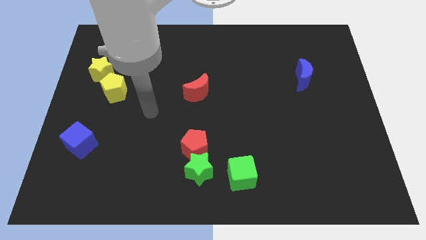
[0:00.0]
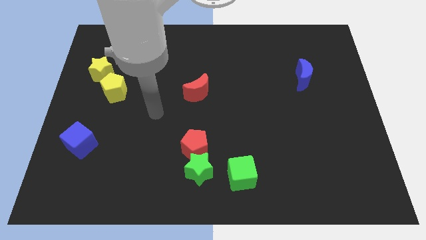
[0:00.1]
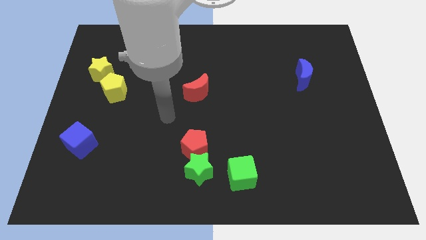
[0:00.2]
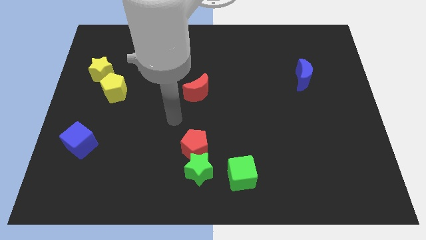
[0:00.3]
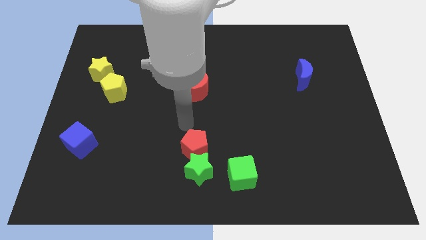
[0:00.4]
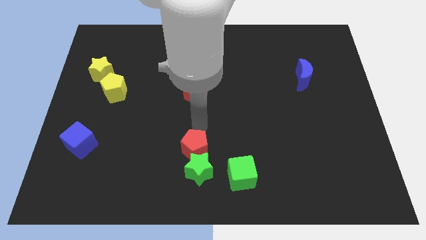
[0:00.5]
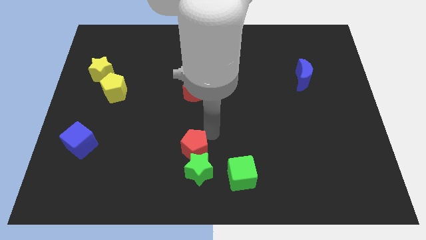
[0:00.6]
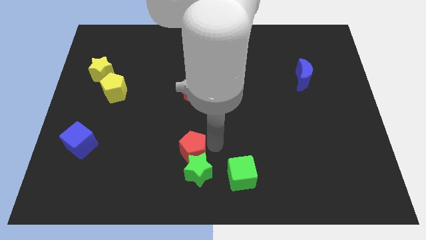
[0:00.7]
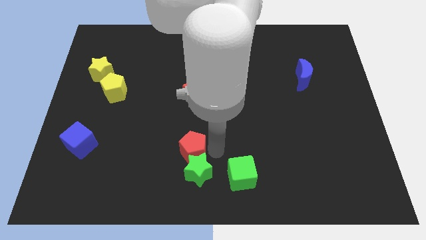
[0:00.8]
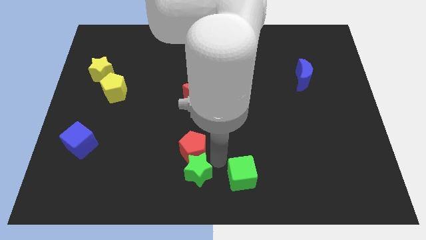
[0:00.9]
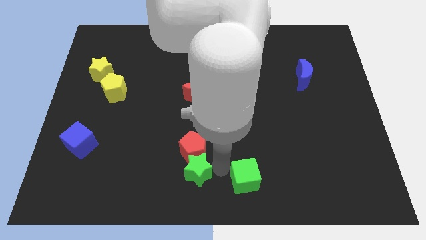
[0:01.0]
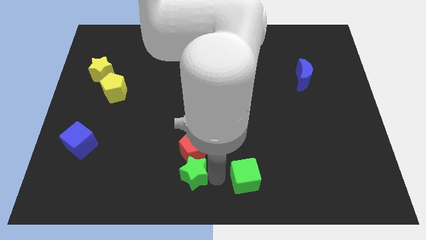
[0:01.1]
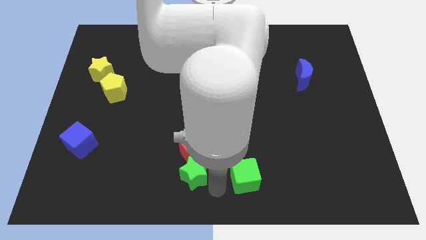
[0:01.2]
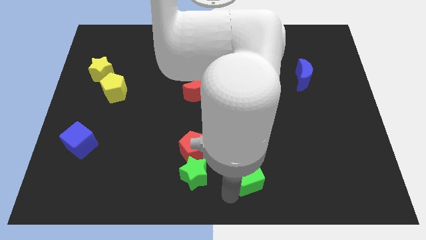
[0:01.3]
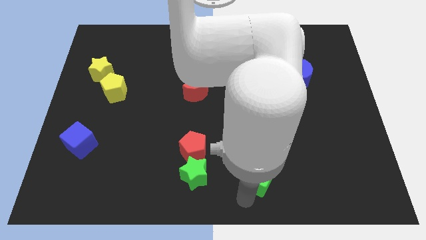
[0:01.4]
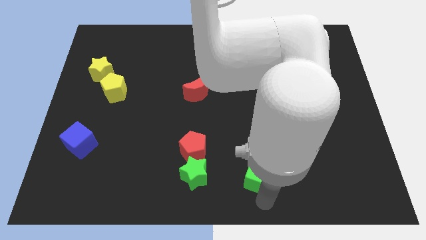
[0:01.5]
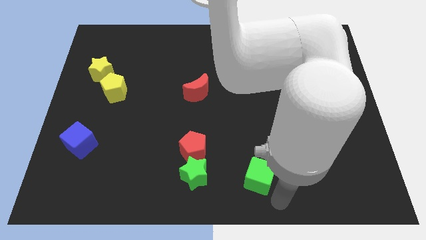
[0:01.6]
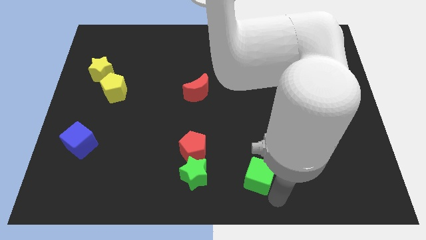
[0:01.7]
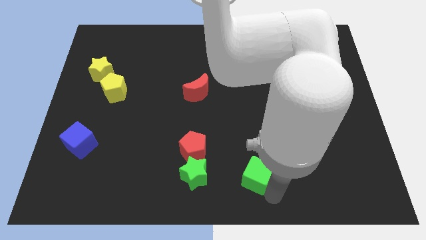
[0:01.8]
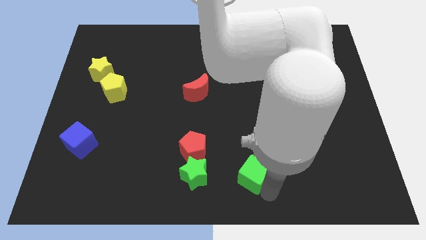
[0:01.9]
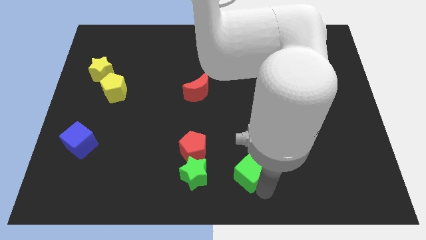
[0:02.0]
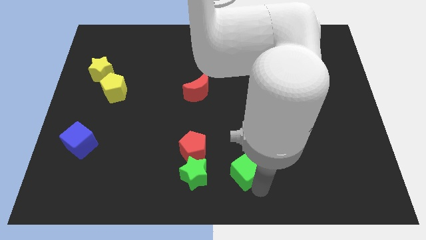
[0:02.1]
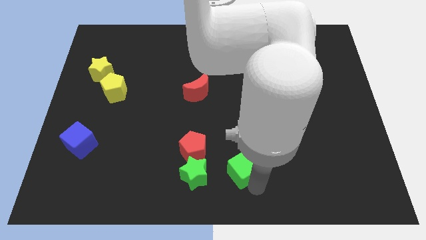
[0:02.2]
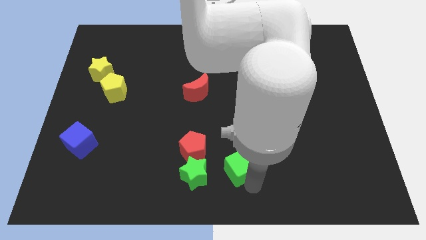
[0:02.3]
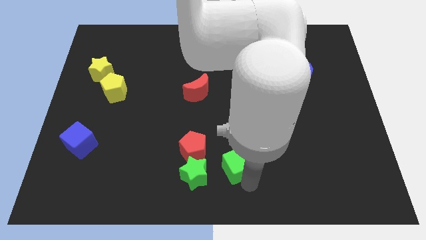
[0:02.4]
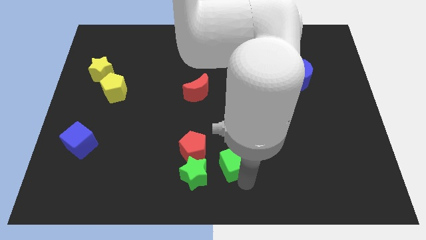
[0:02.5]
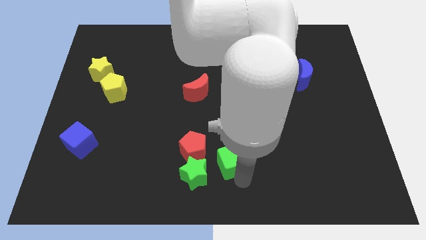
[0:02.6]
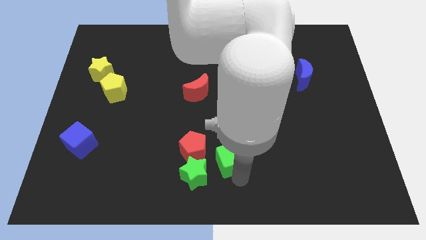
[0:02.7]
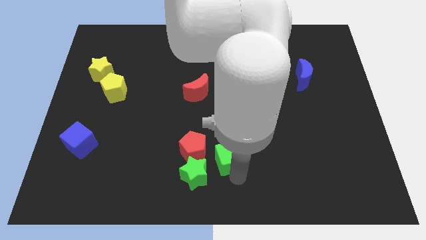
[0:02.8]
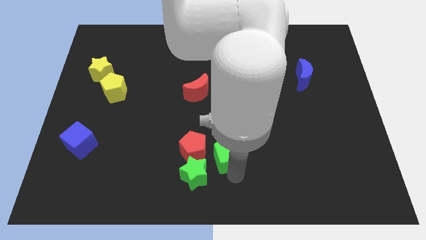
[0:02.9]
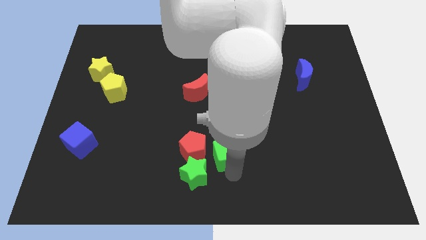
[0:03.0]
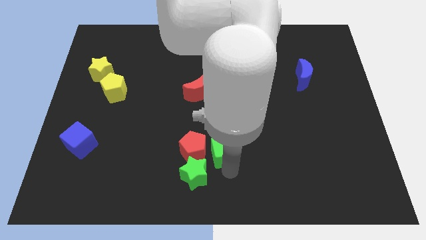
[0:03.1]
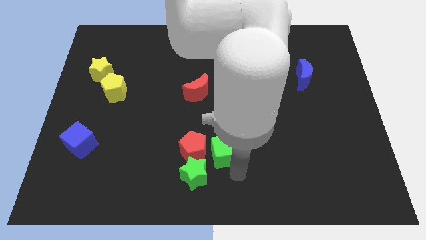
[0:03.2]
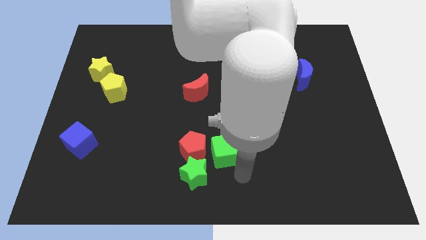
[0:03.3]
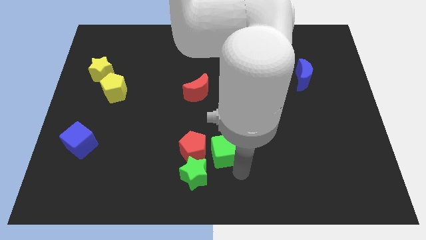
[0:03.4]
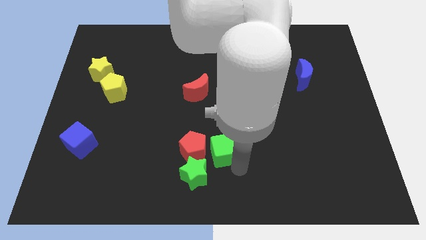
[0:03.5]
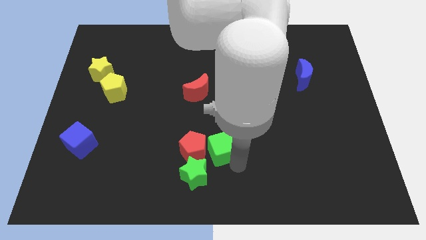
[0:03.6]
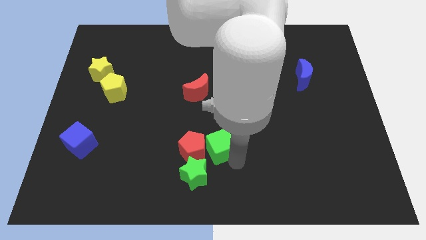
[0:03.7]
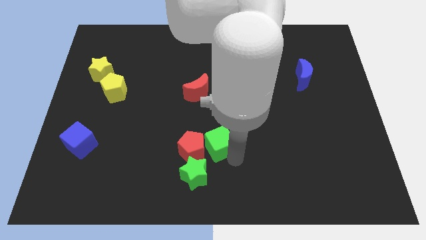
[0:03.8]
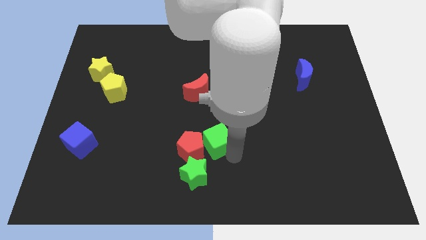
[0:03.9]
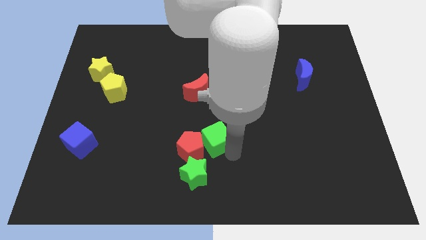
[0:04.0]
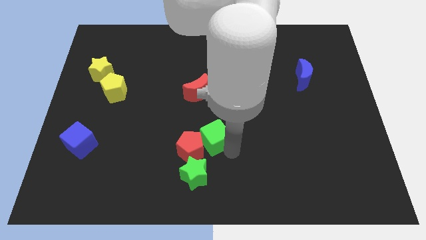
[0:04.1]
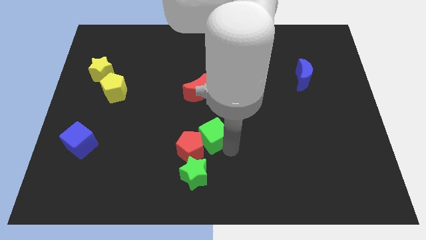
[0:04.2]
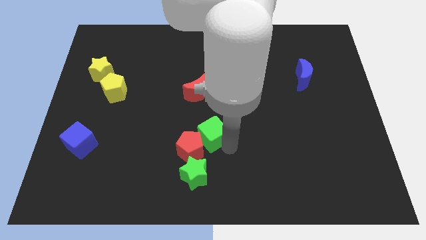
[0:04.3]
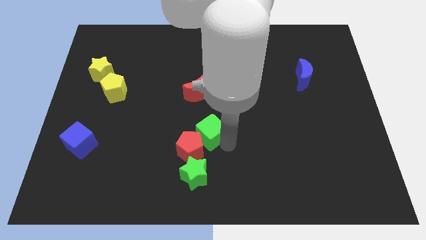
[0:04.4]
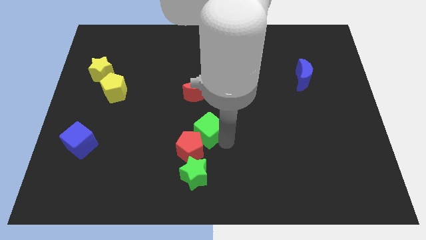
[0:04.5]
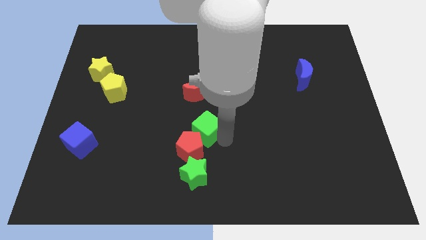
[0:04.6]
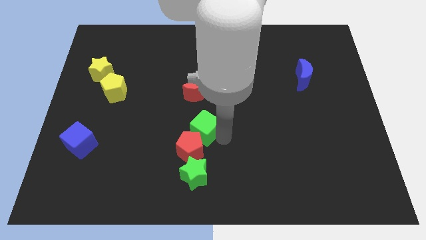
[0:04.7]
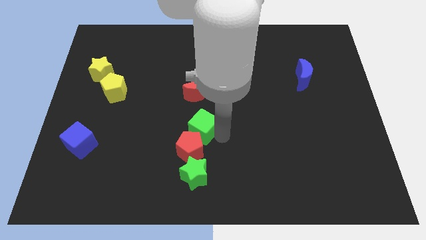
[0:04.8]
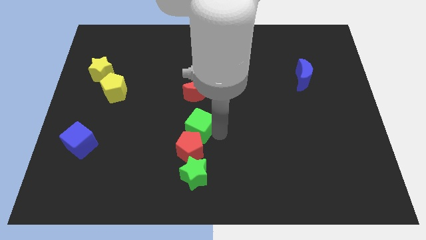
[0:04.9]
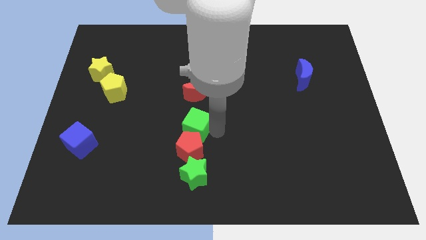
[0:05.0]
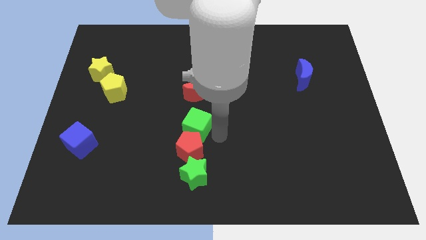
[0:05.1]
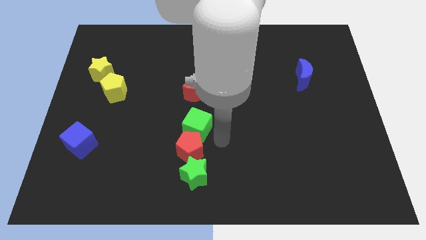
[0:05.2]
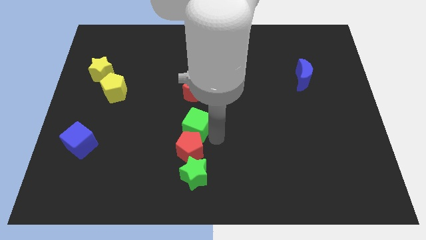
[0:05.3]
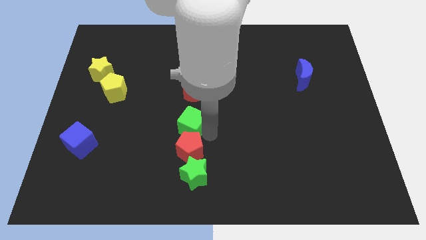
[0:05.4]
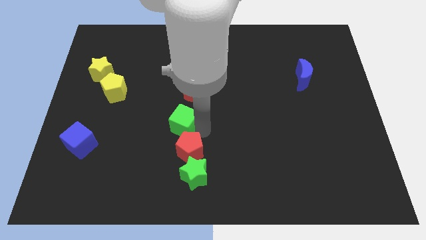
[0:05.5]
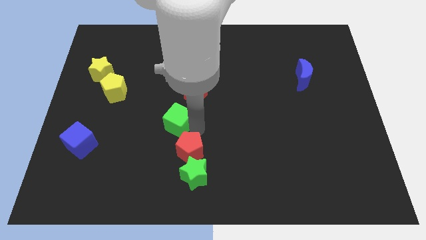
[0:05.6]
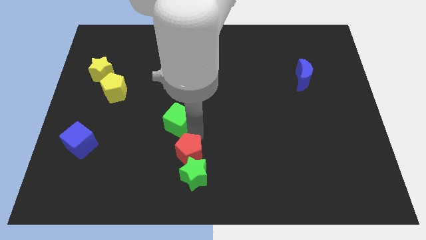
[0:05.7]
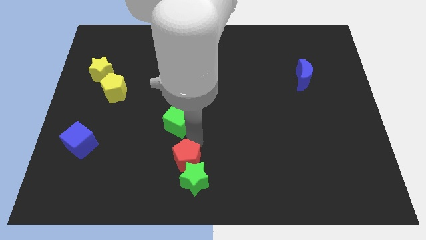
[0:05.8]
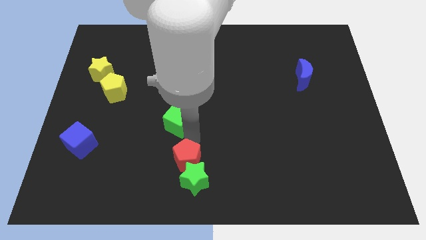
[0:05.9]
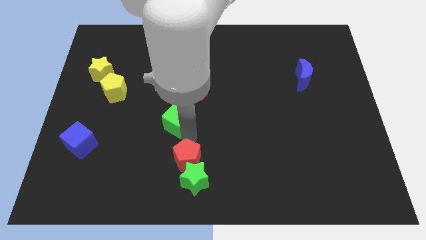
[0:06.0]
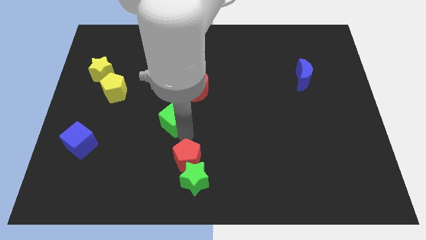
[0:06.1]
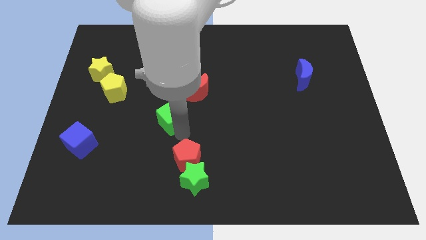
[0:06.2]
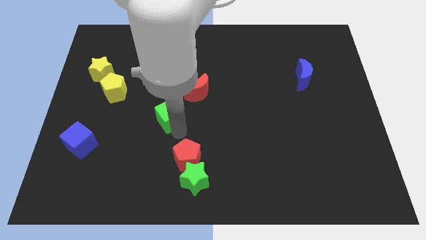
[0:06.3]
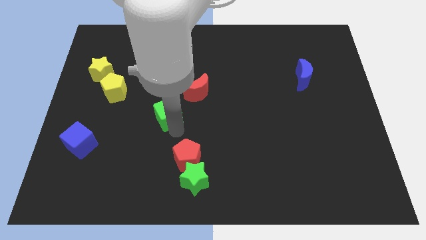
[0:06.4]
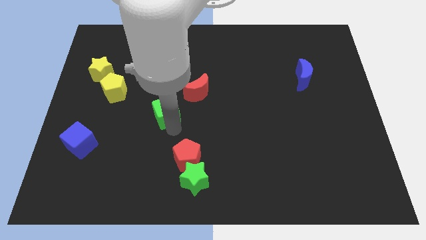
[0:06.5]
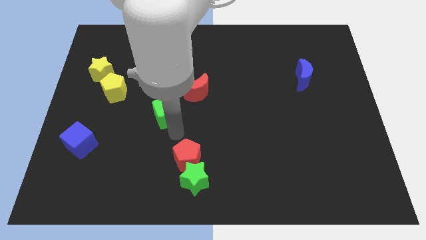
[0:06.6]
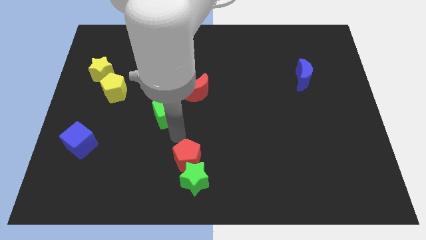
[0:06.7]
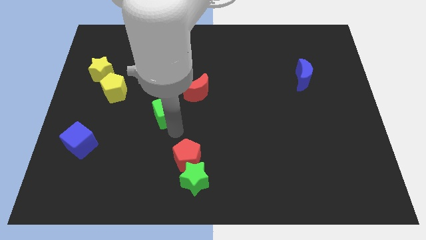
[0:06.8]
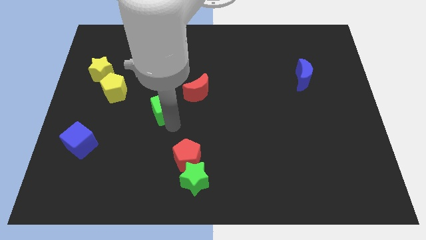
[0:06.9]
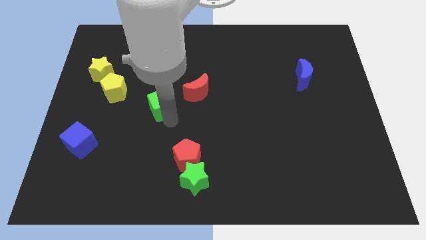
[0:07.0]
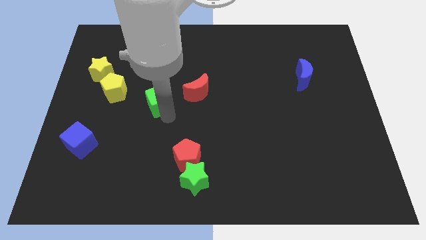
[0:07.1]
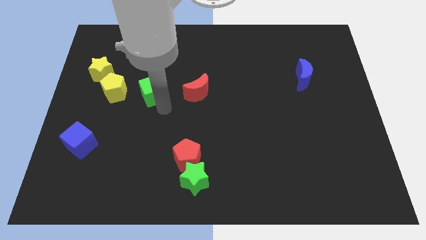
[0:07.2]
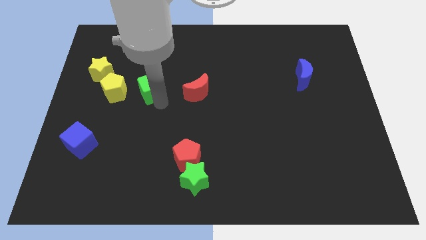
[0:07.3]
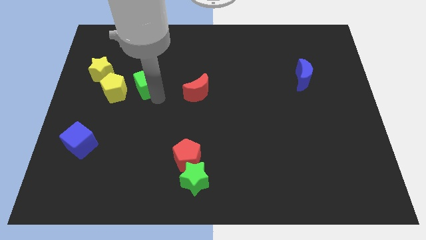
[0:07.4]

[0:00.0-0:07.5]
move the green cube to the top right side of the yellow pentagon
